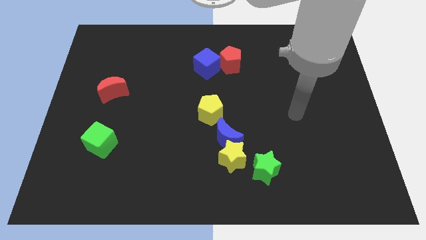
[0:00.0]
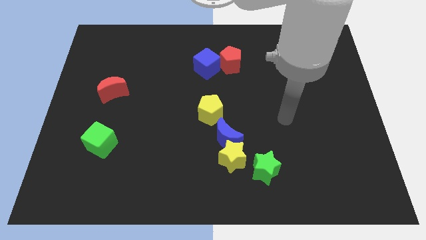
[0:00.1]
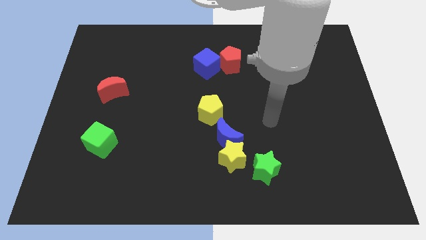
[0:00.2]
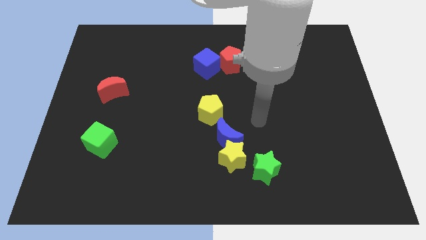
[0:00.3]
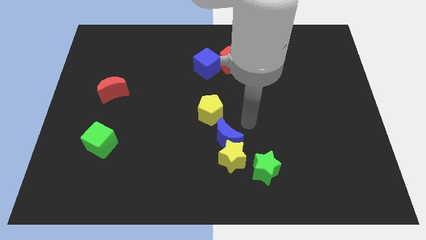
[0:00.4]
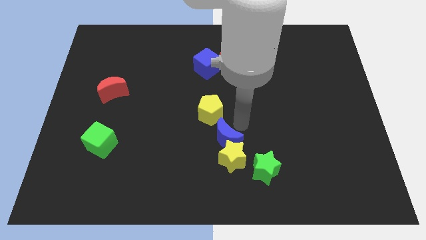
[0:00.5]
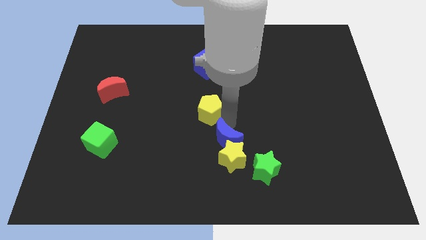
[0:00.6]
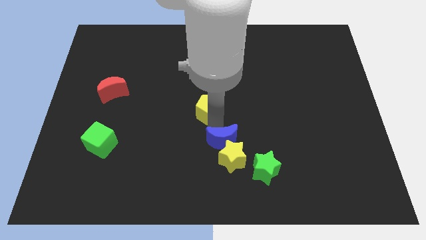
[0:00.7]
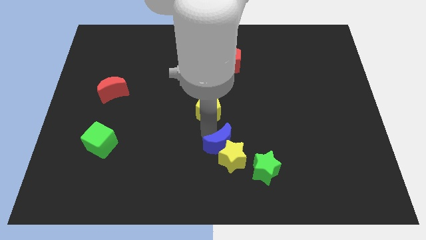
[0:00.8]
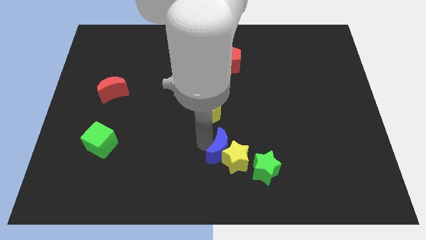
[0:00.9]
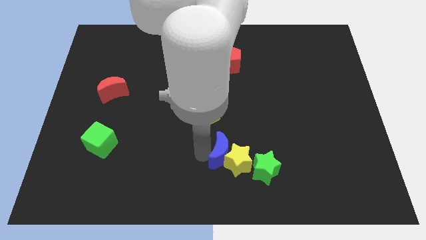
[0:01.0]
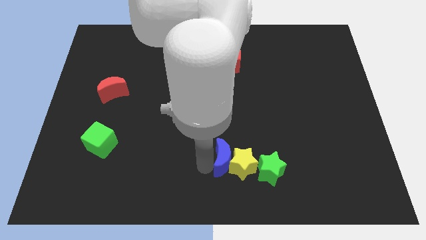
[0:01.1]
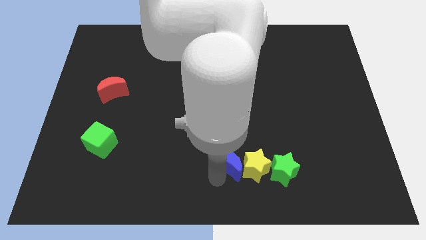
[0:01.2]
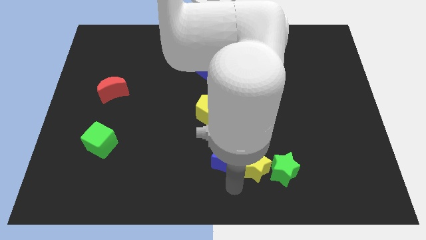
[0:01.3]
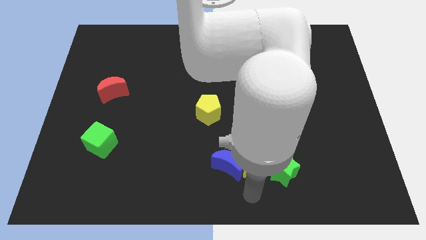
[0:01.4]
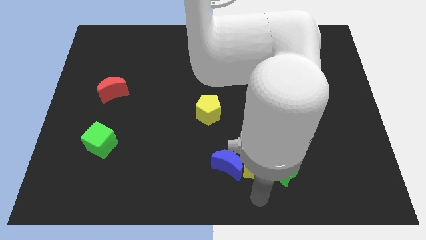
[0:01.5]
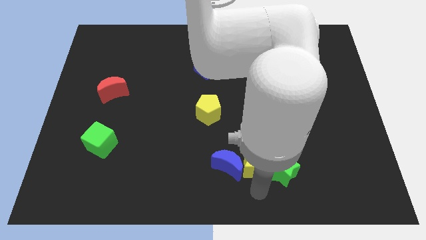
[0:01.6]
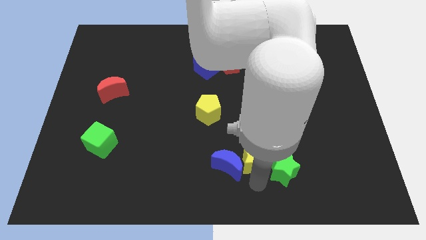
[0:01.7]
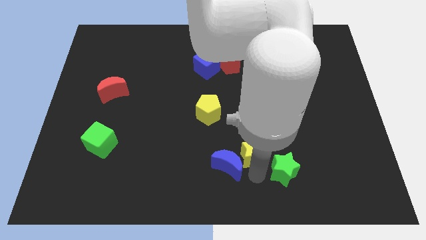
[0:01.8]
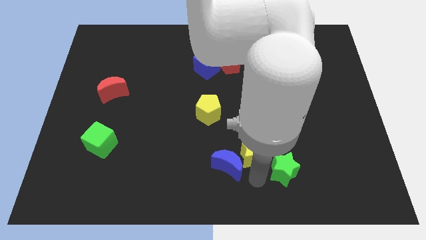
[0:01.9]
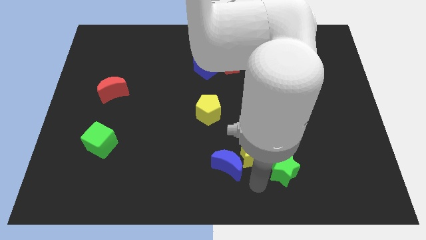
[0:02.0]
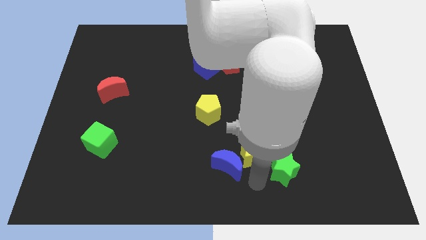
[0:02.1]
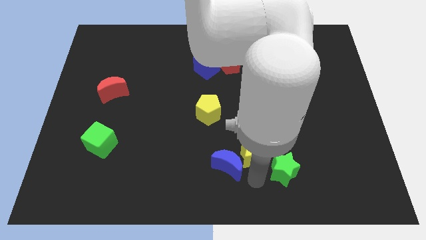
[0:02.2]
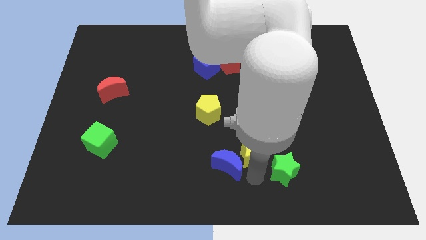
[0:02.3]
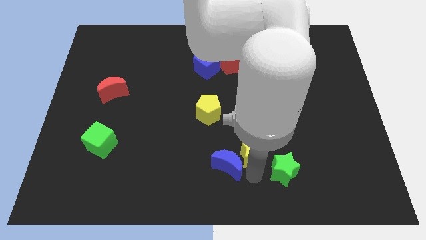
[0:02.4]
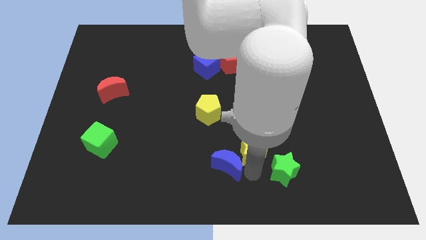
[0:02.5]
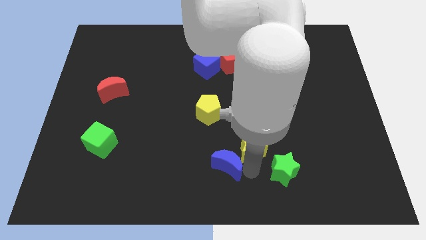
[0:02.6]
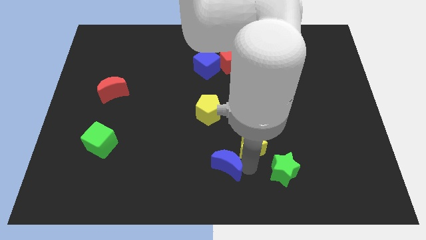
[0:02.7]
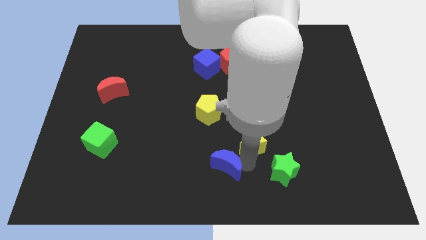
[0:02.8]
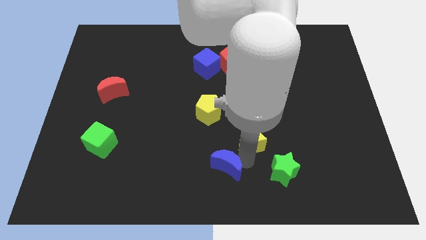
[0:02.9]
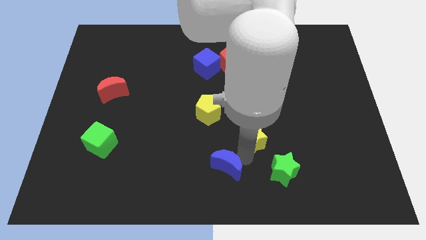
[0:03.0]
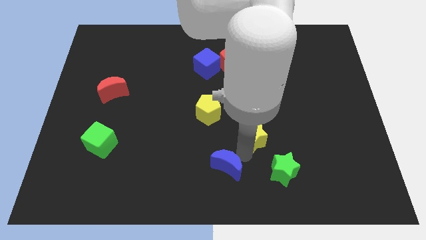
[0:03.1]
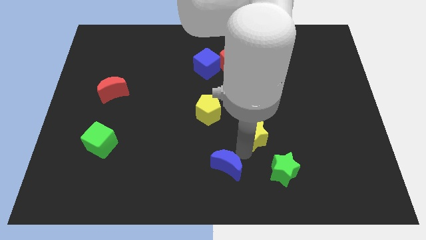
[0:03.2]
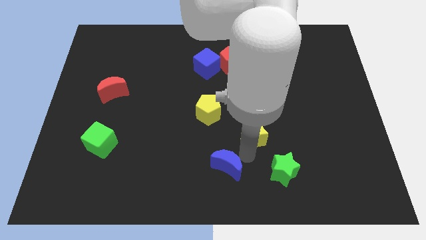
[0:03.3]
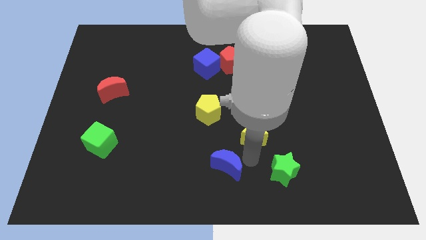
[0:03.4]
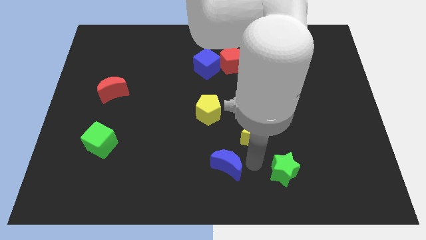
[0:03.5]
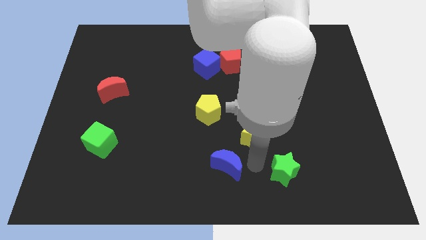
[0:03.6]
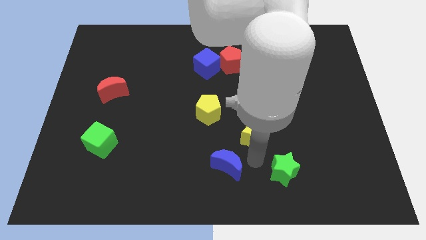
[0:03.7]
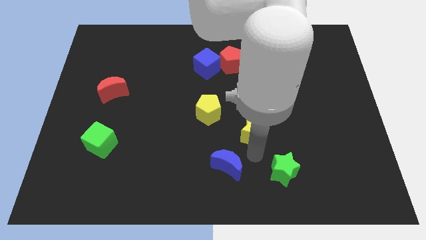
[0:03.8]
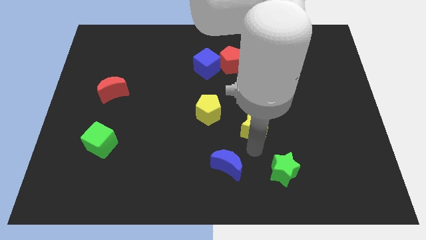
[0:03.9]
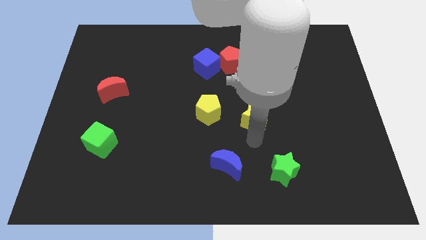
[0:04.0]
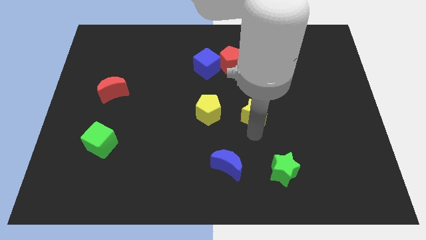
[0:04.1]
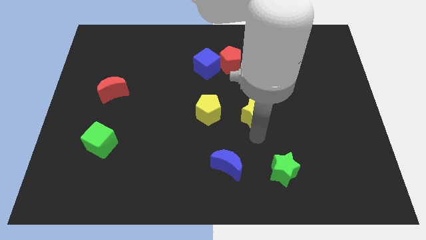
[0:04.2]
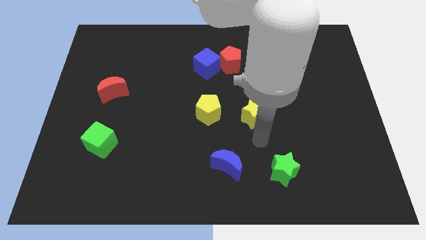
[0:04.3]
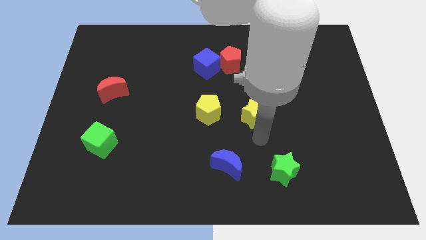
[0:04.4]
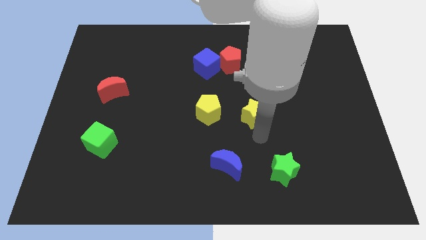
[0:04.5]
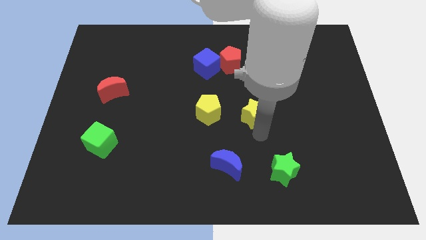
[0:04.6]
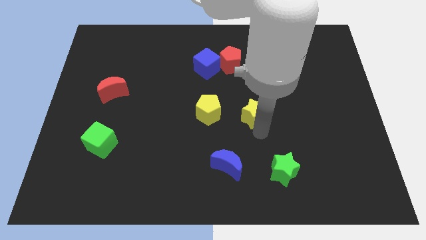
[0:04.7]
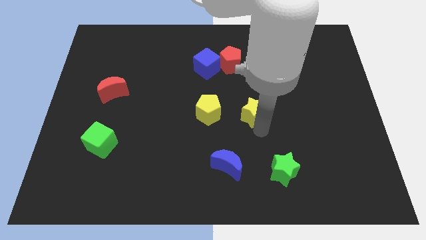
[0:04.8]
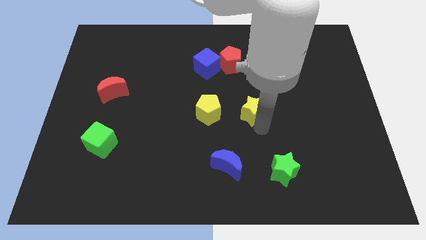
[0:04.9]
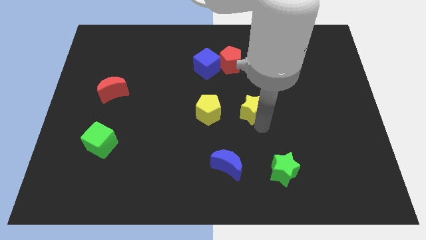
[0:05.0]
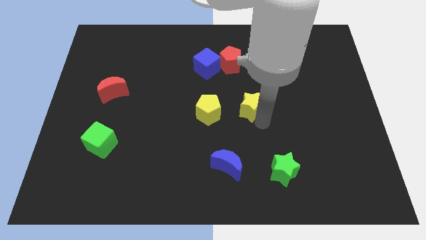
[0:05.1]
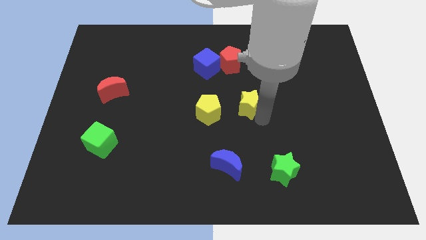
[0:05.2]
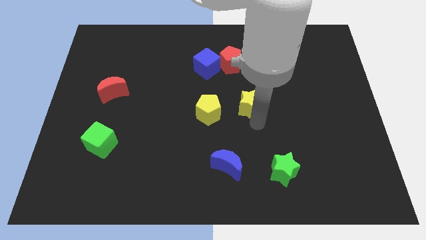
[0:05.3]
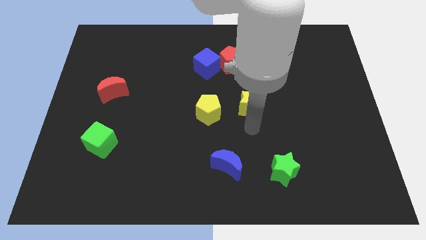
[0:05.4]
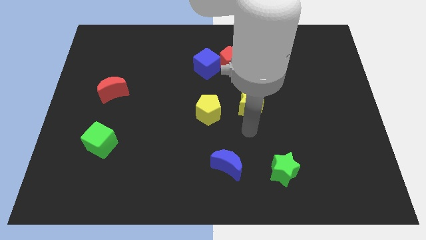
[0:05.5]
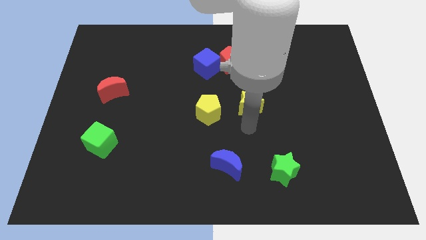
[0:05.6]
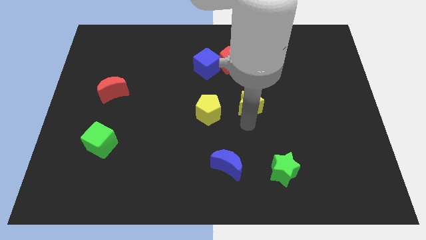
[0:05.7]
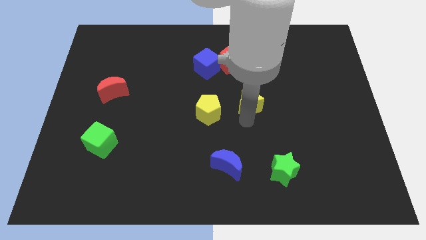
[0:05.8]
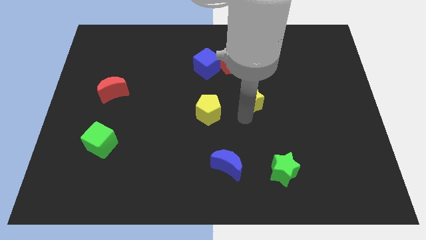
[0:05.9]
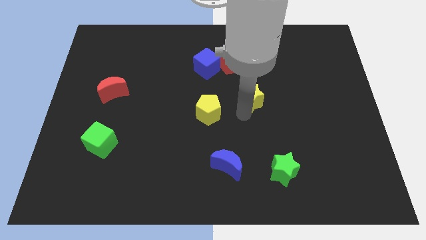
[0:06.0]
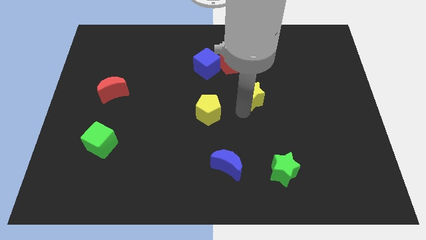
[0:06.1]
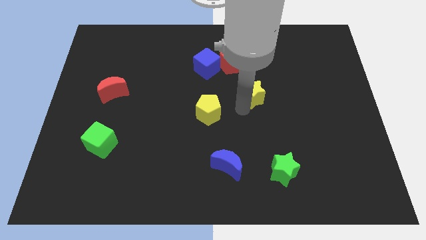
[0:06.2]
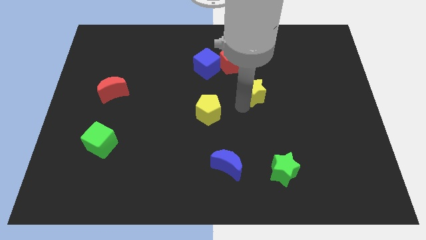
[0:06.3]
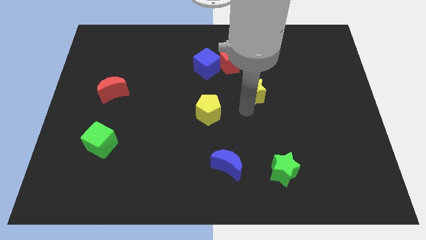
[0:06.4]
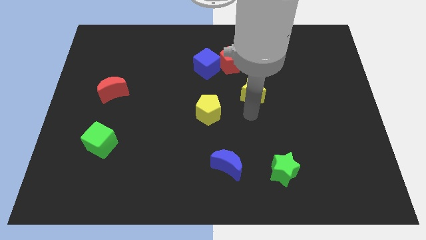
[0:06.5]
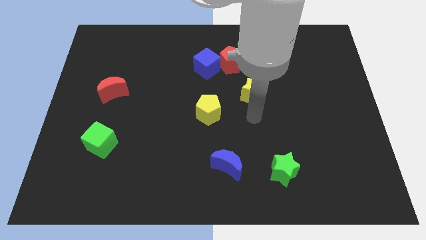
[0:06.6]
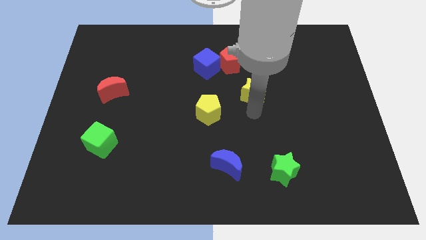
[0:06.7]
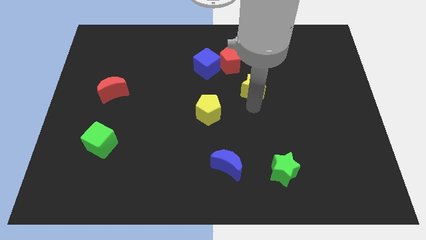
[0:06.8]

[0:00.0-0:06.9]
push the yellow star to the bottom right side of the red pentagon
